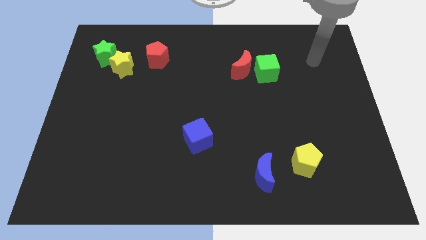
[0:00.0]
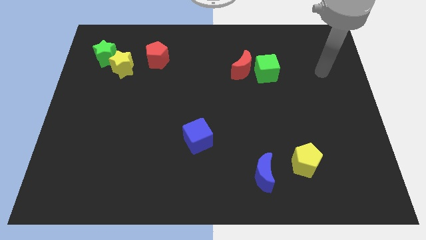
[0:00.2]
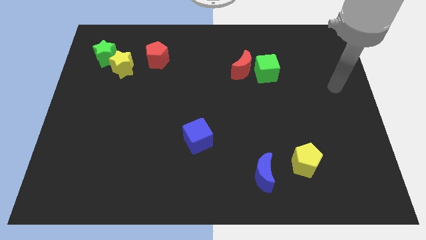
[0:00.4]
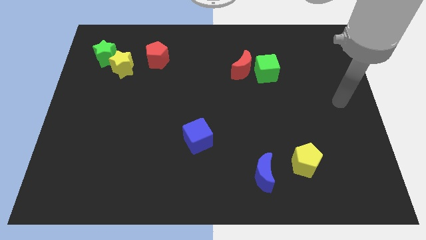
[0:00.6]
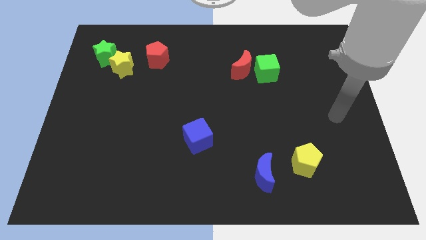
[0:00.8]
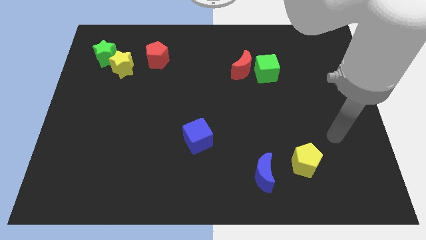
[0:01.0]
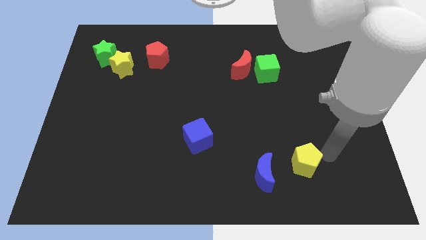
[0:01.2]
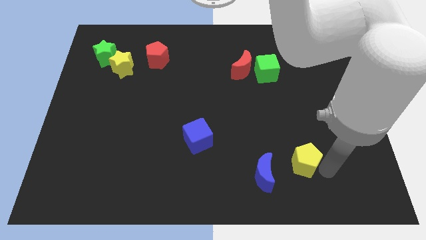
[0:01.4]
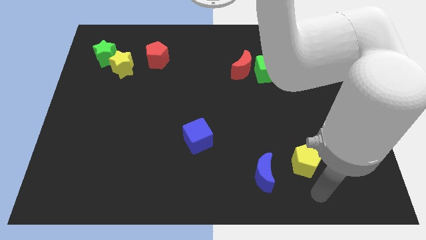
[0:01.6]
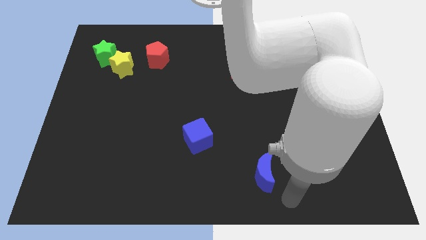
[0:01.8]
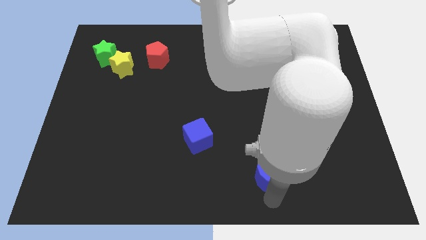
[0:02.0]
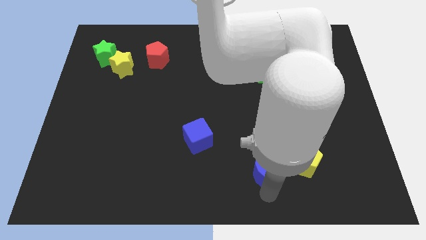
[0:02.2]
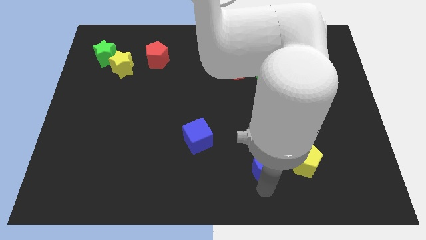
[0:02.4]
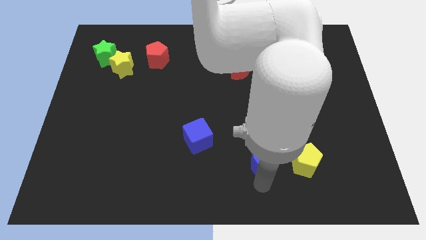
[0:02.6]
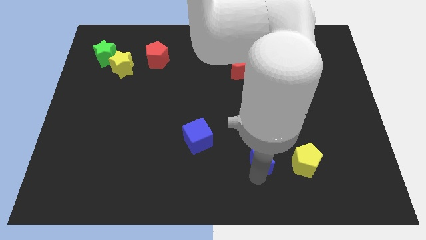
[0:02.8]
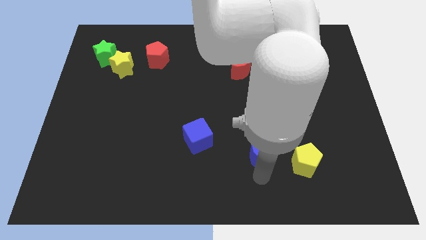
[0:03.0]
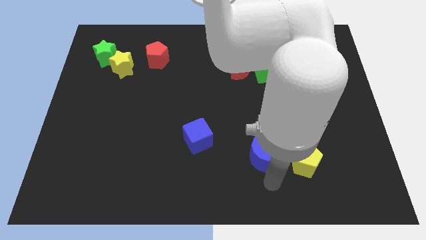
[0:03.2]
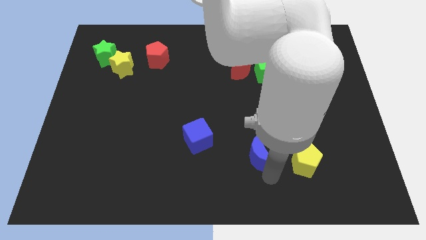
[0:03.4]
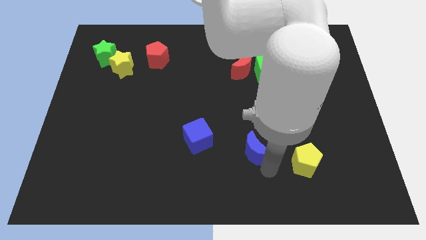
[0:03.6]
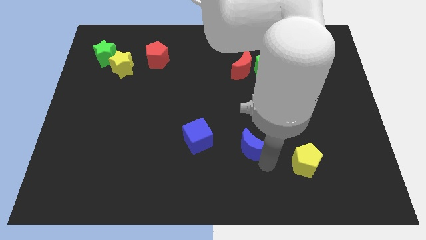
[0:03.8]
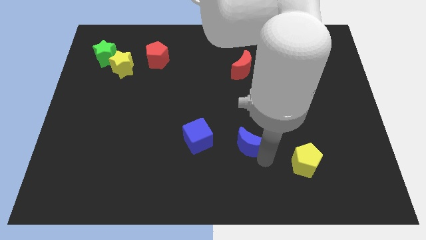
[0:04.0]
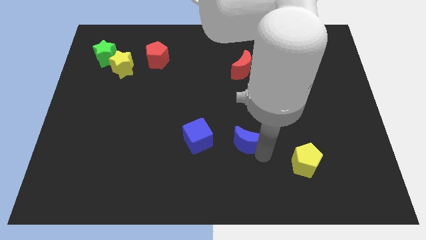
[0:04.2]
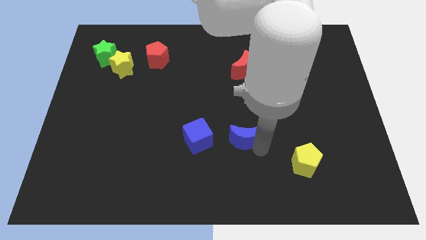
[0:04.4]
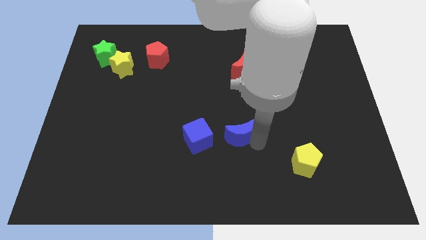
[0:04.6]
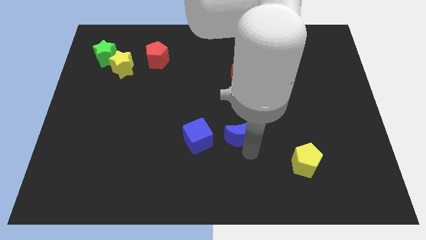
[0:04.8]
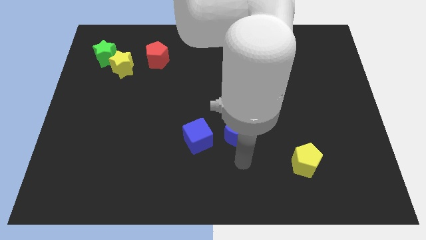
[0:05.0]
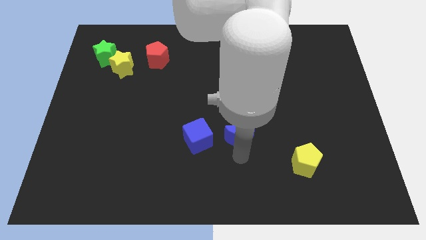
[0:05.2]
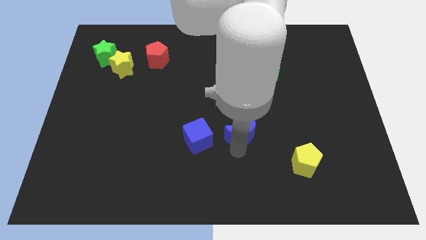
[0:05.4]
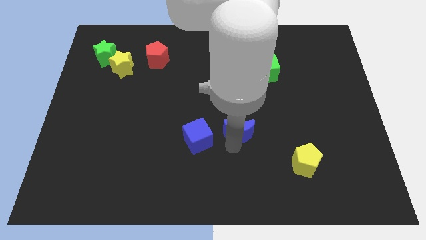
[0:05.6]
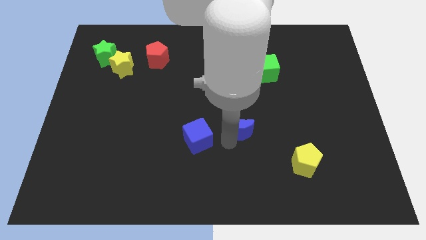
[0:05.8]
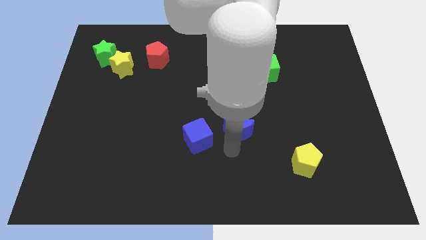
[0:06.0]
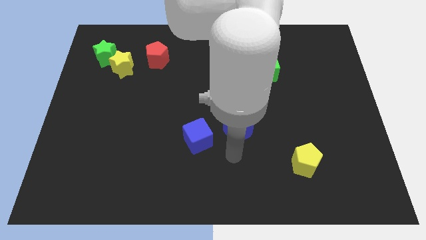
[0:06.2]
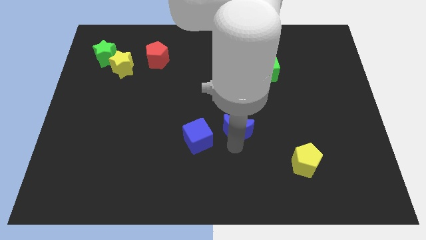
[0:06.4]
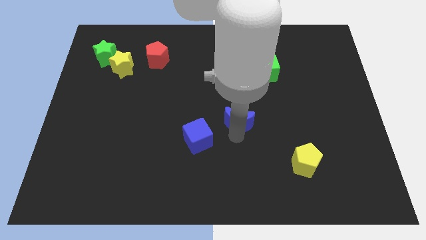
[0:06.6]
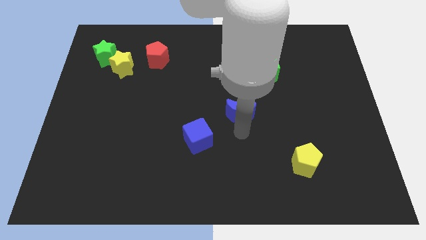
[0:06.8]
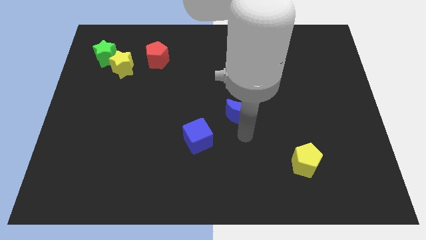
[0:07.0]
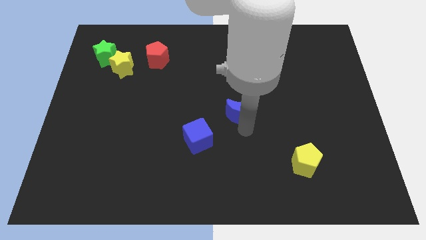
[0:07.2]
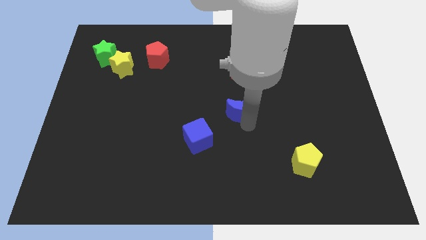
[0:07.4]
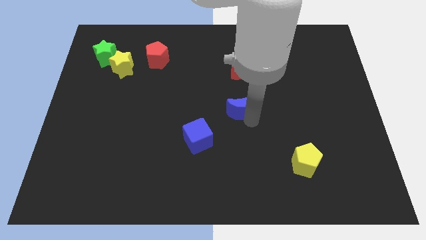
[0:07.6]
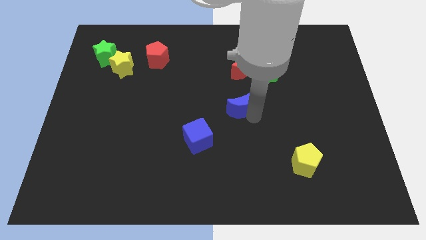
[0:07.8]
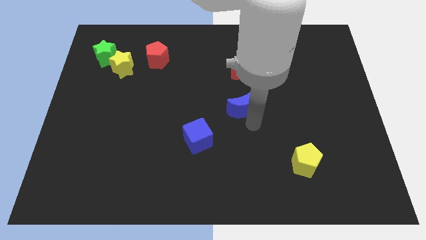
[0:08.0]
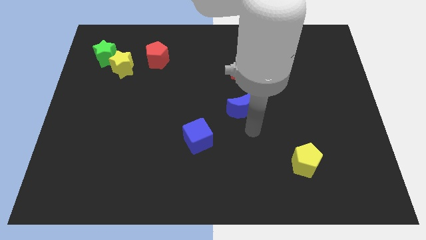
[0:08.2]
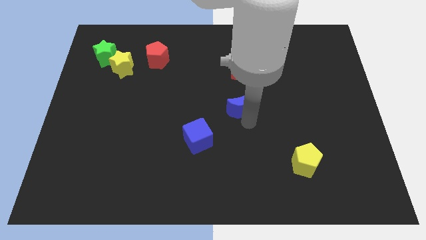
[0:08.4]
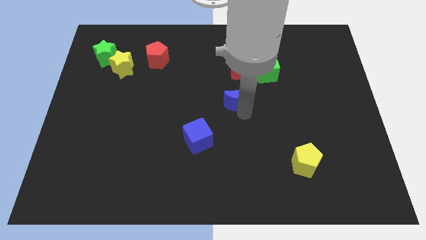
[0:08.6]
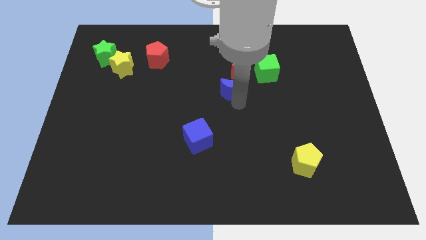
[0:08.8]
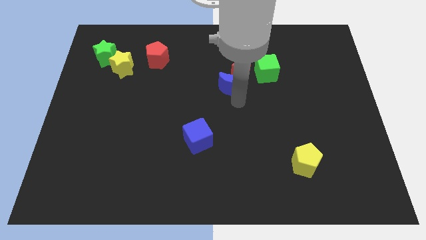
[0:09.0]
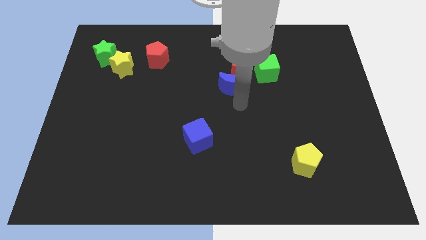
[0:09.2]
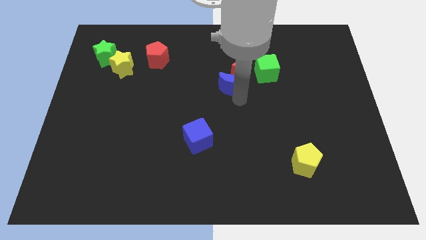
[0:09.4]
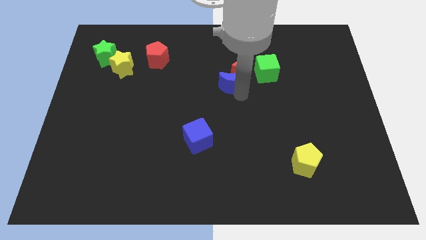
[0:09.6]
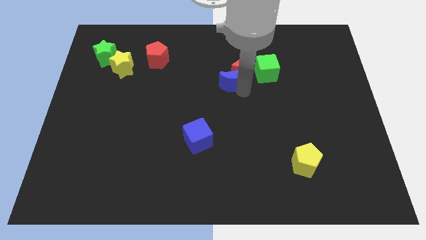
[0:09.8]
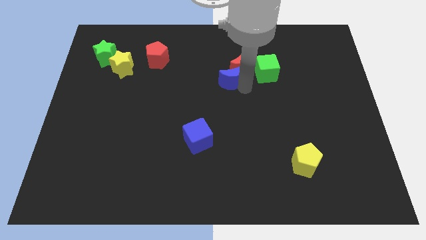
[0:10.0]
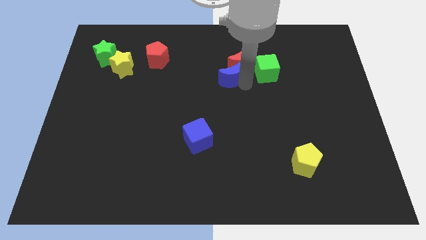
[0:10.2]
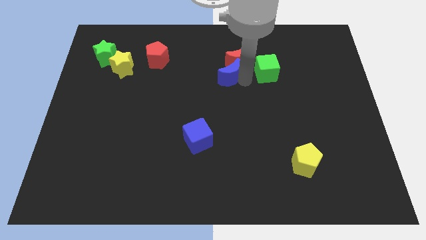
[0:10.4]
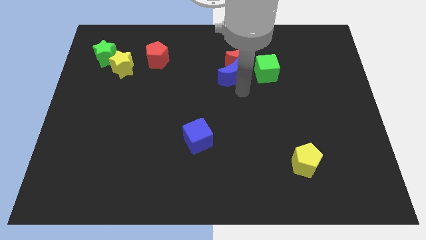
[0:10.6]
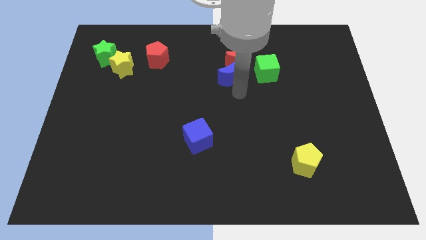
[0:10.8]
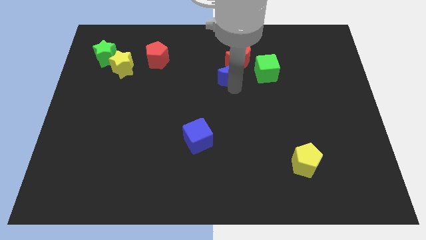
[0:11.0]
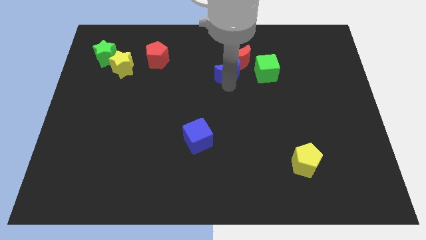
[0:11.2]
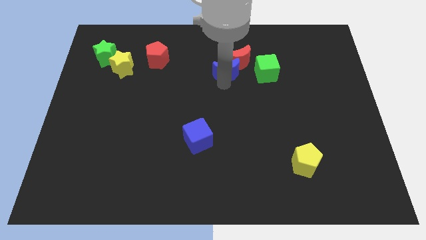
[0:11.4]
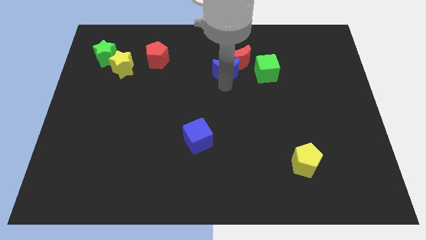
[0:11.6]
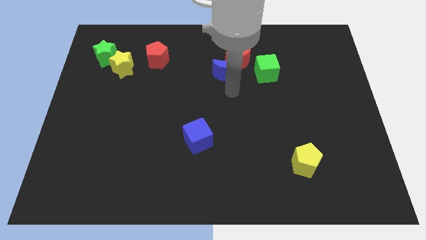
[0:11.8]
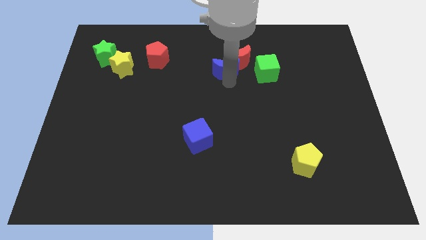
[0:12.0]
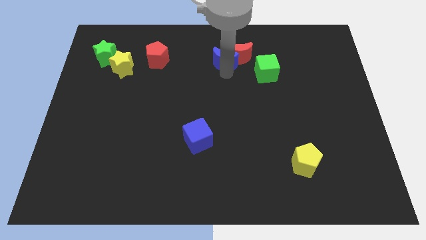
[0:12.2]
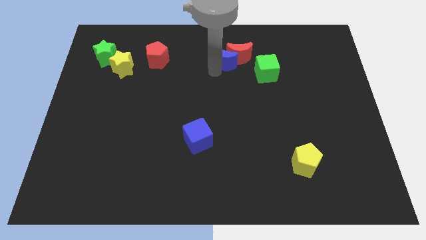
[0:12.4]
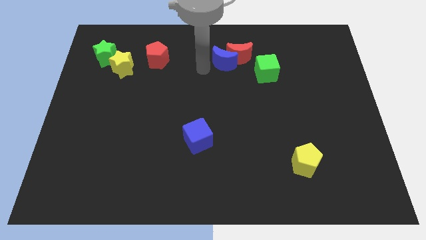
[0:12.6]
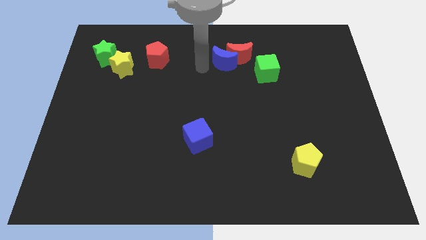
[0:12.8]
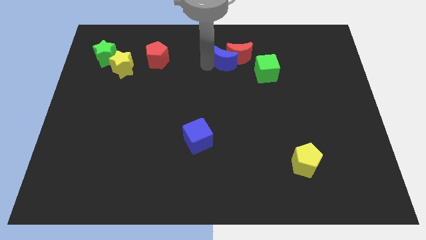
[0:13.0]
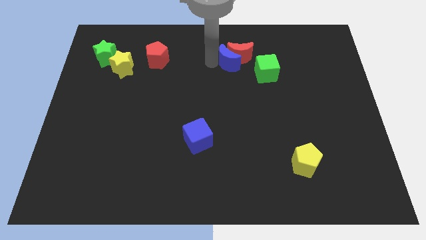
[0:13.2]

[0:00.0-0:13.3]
put the blue moon to the top left of the green cube
